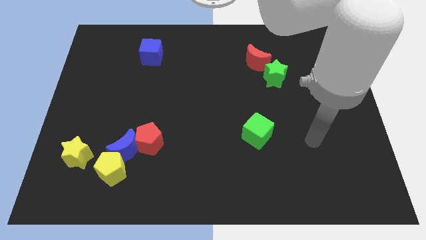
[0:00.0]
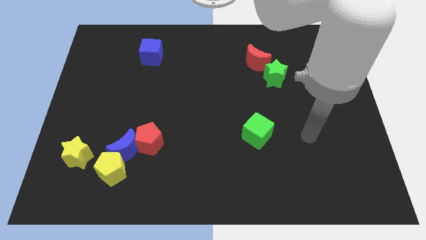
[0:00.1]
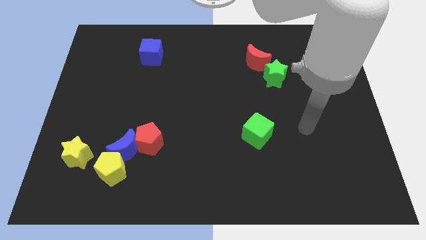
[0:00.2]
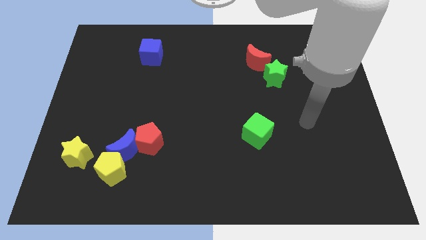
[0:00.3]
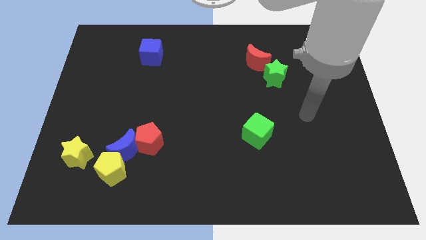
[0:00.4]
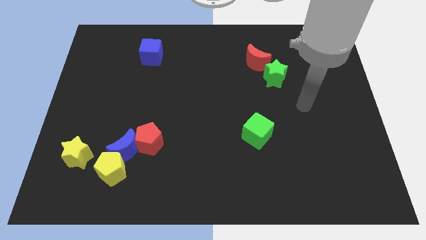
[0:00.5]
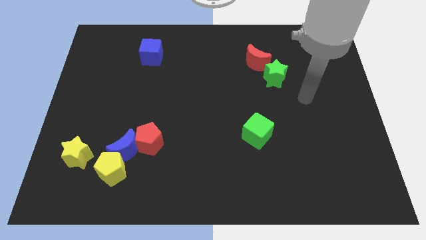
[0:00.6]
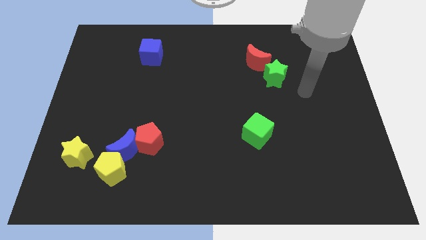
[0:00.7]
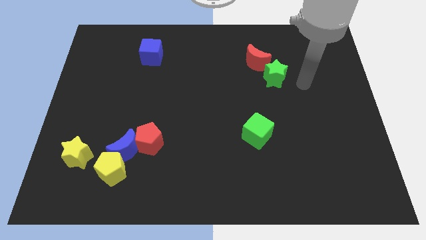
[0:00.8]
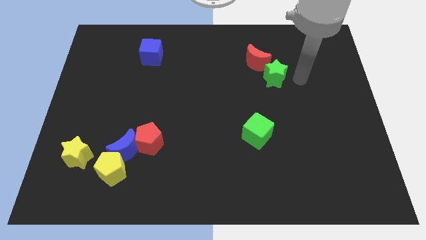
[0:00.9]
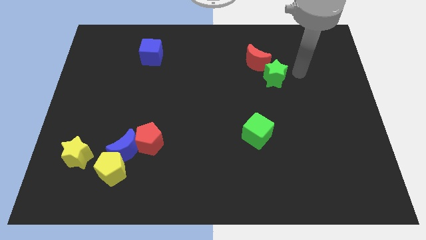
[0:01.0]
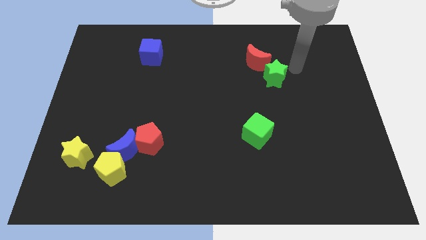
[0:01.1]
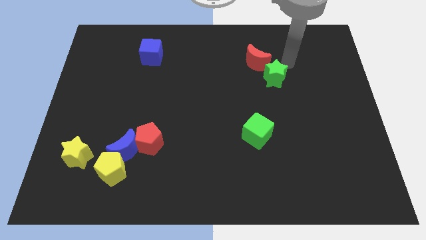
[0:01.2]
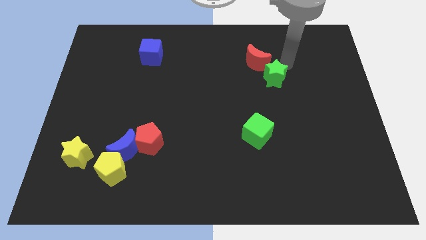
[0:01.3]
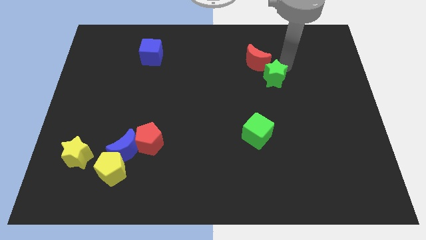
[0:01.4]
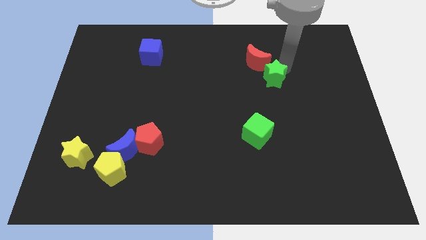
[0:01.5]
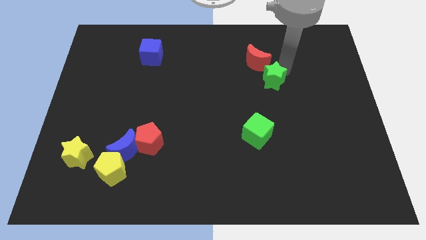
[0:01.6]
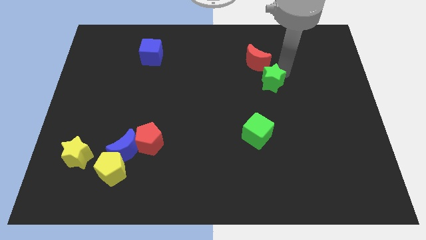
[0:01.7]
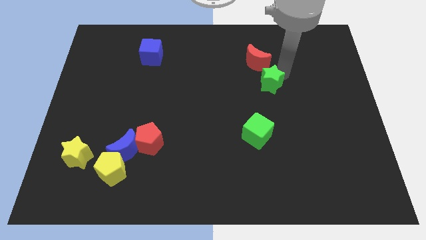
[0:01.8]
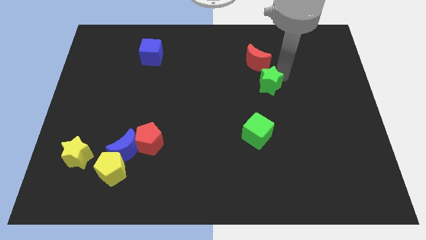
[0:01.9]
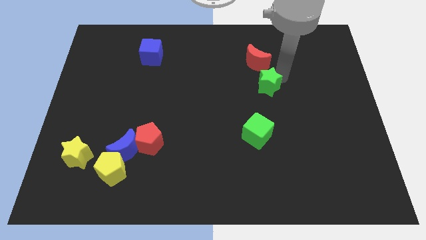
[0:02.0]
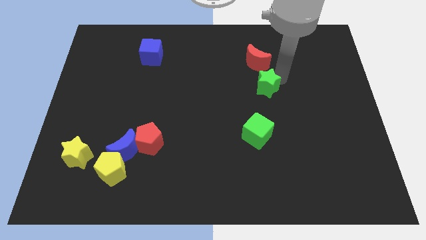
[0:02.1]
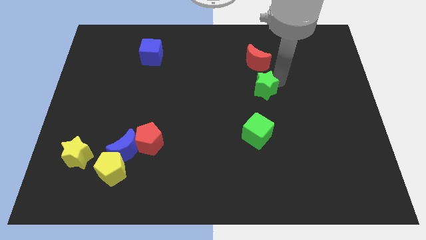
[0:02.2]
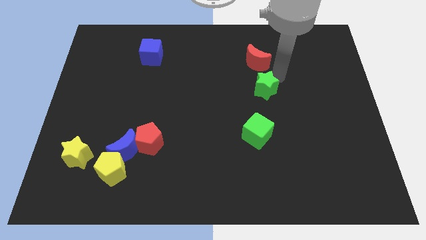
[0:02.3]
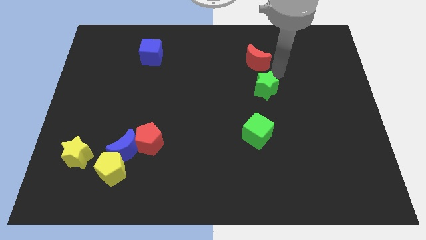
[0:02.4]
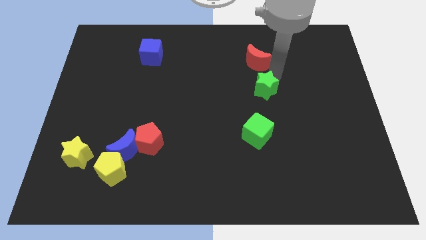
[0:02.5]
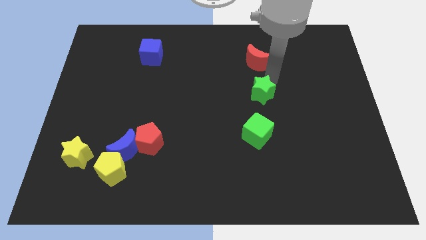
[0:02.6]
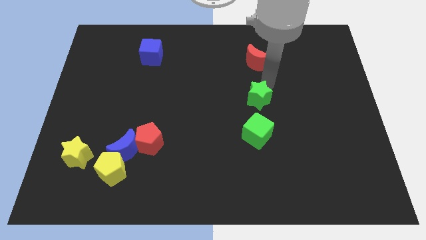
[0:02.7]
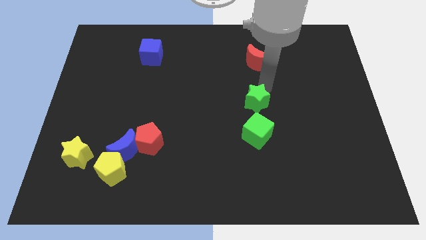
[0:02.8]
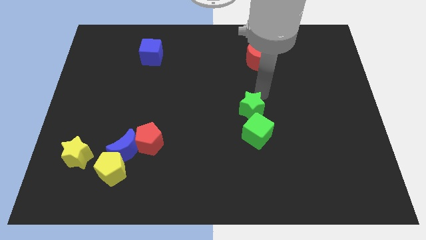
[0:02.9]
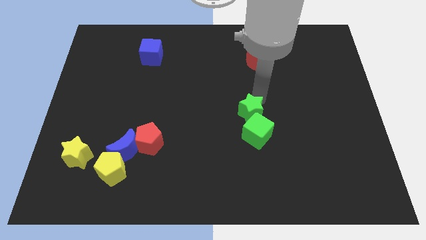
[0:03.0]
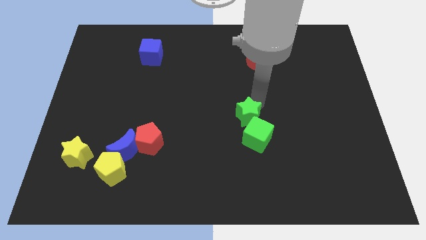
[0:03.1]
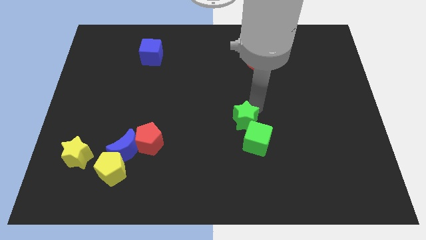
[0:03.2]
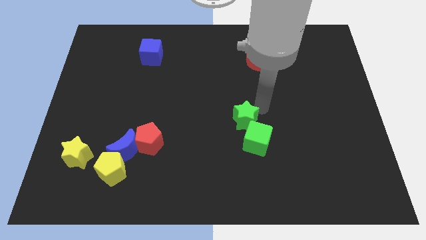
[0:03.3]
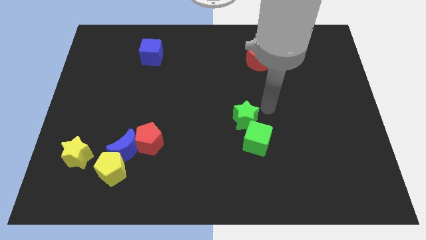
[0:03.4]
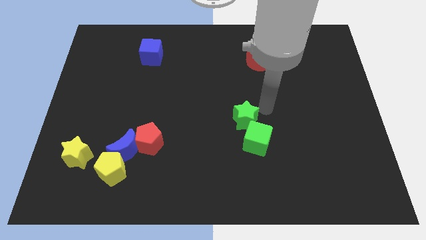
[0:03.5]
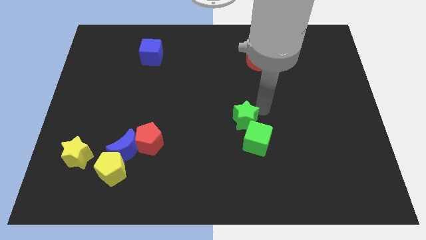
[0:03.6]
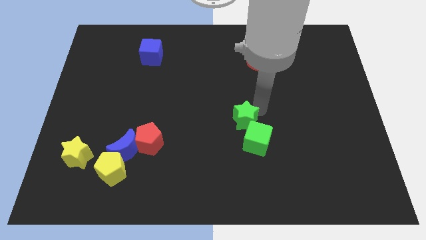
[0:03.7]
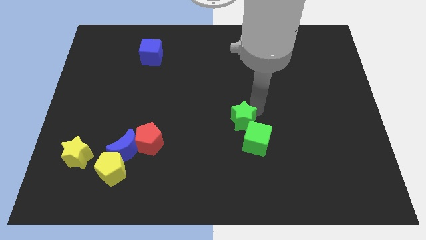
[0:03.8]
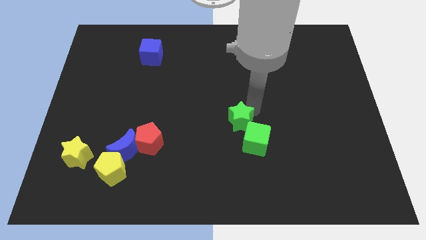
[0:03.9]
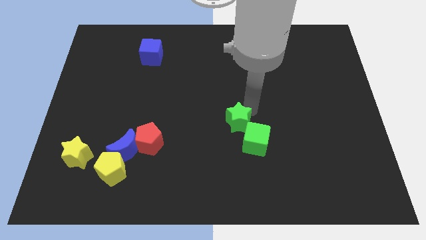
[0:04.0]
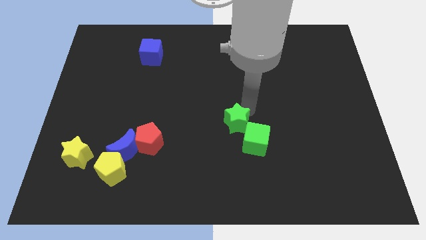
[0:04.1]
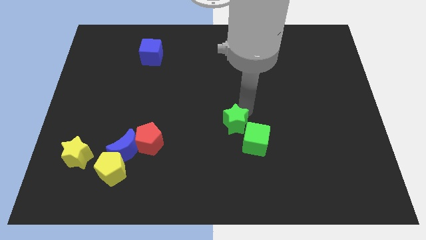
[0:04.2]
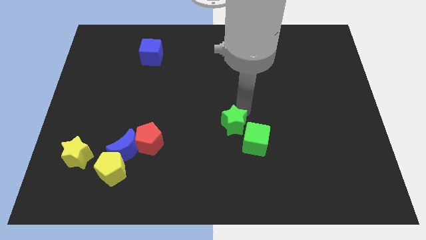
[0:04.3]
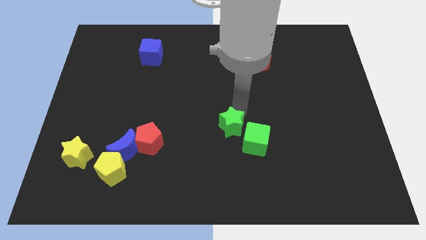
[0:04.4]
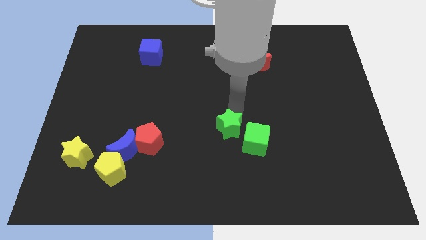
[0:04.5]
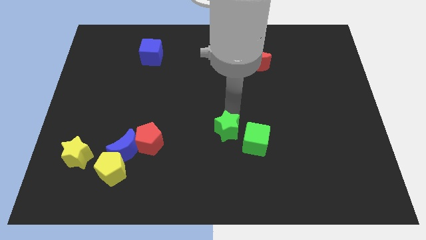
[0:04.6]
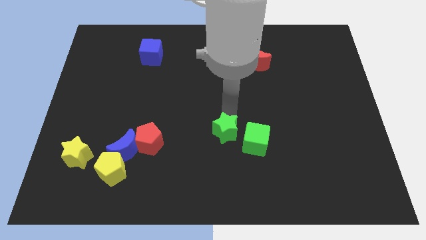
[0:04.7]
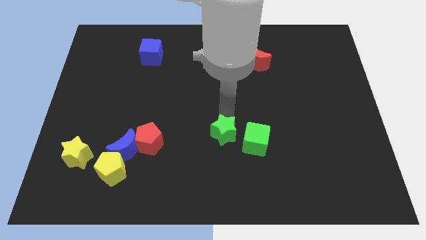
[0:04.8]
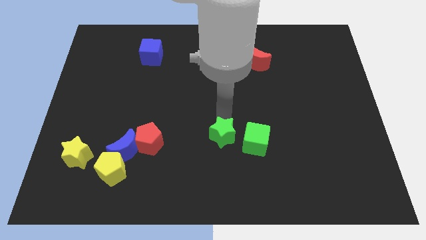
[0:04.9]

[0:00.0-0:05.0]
move the green star just right of the red pentagon
